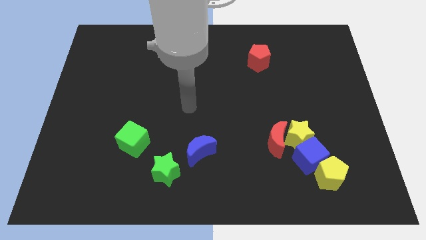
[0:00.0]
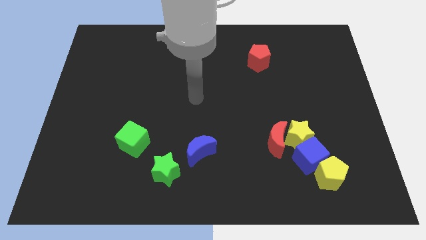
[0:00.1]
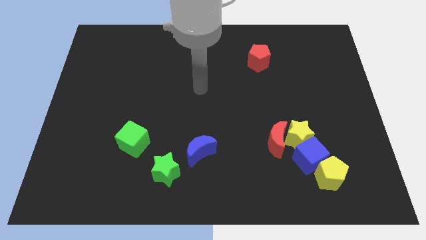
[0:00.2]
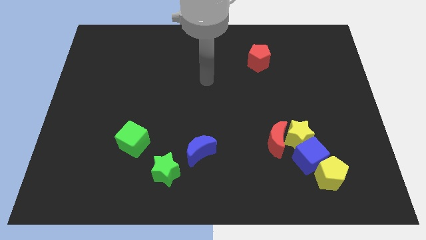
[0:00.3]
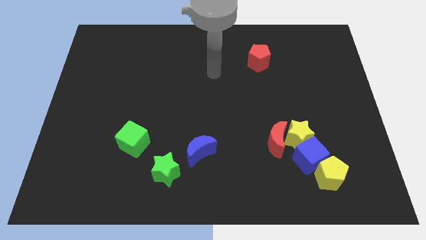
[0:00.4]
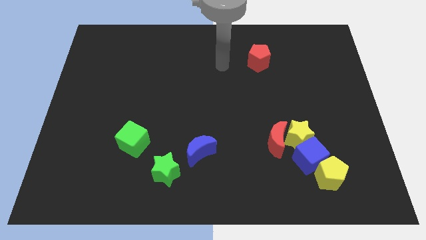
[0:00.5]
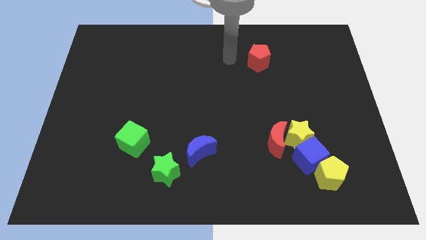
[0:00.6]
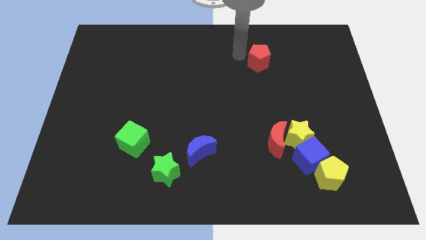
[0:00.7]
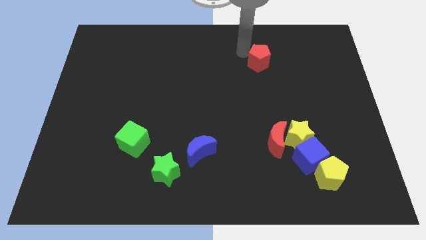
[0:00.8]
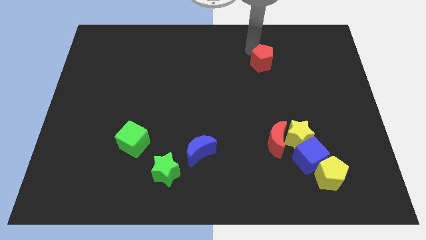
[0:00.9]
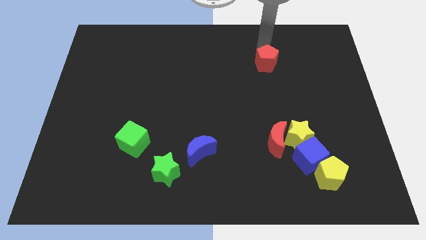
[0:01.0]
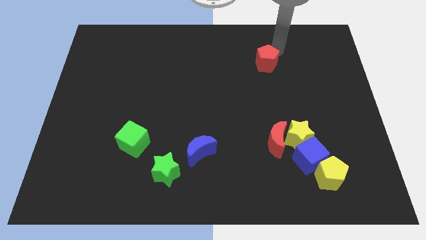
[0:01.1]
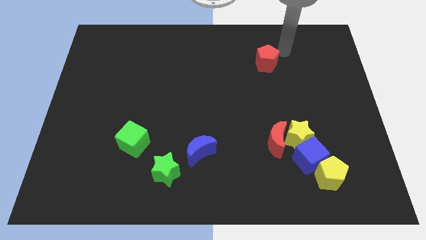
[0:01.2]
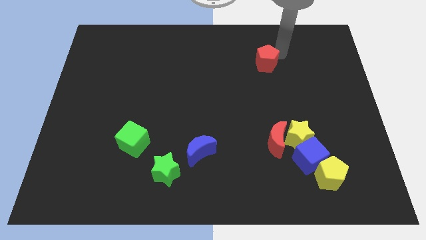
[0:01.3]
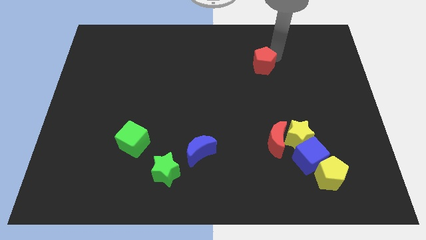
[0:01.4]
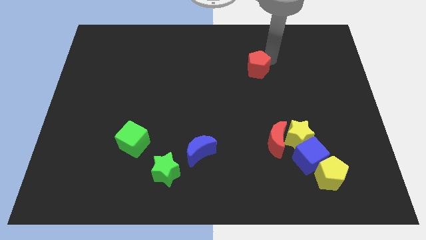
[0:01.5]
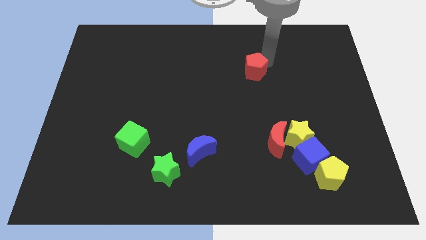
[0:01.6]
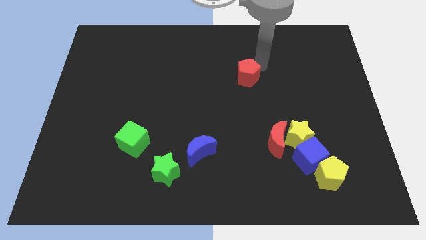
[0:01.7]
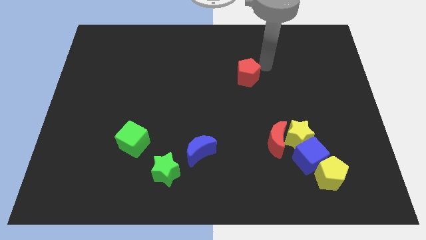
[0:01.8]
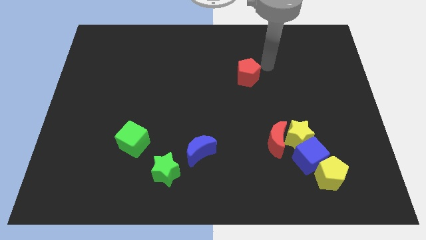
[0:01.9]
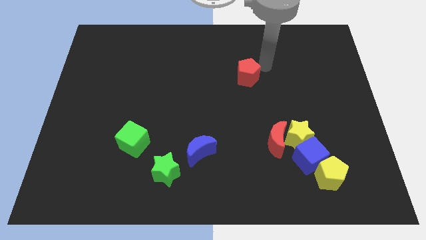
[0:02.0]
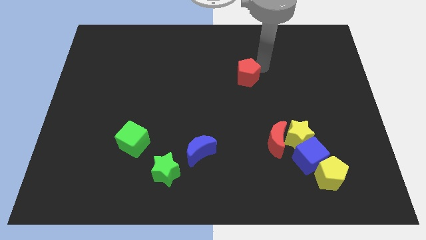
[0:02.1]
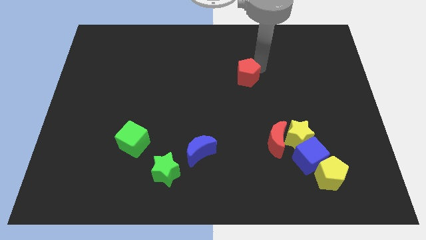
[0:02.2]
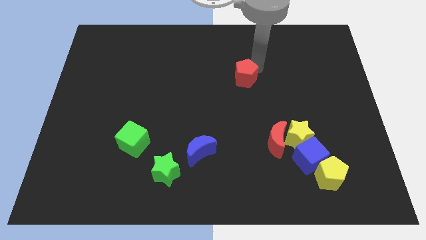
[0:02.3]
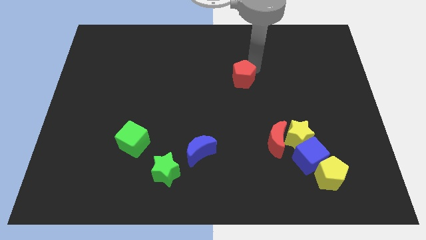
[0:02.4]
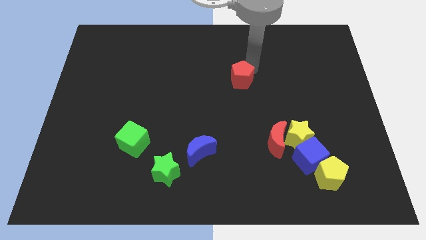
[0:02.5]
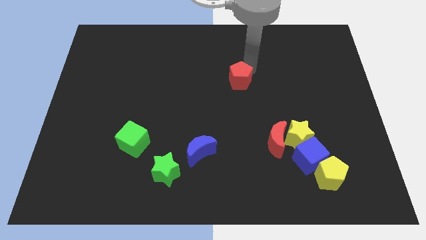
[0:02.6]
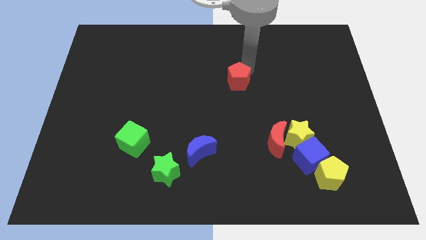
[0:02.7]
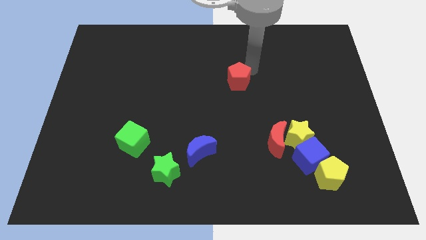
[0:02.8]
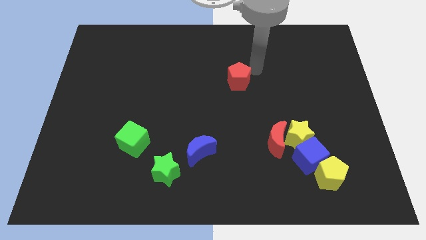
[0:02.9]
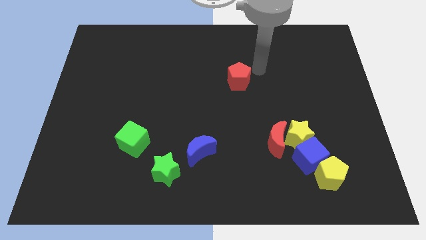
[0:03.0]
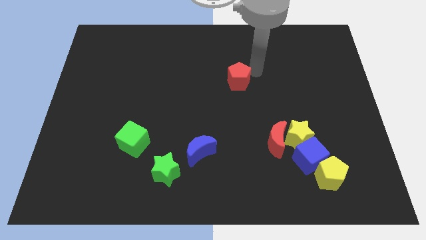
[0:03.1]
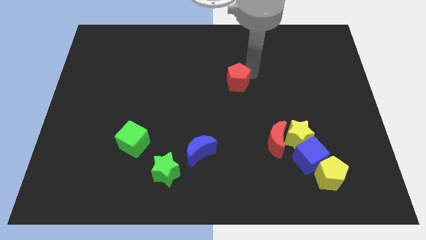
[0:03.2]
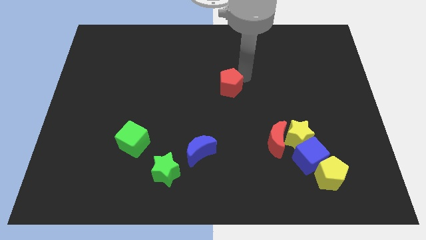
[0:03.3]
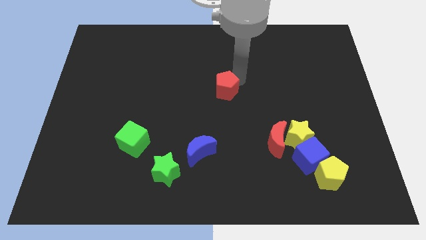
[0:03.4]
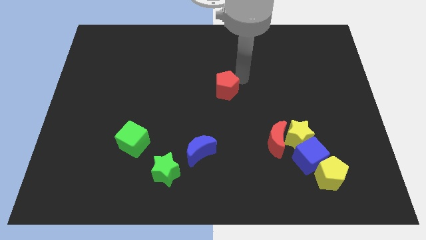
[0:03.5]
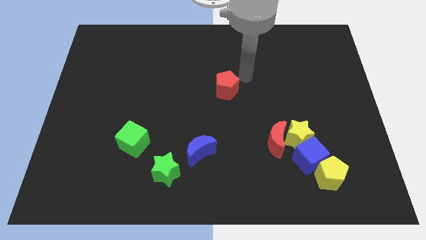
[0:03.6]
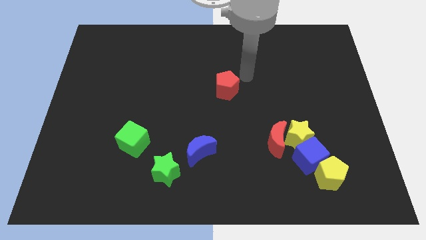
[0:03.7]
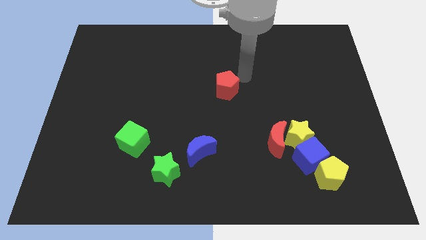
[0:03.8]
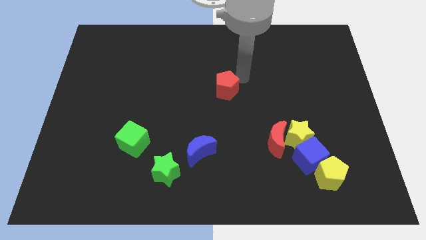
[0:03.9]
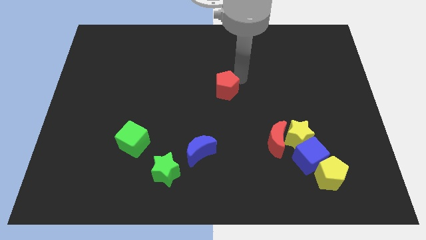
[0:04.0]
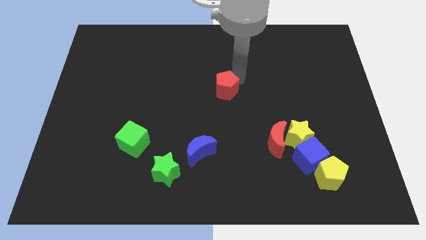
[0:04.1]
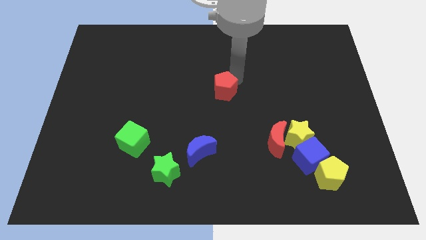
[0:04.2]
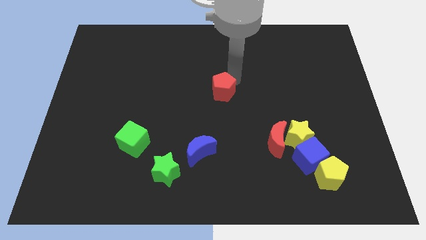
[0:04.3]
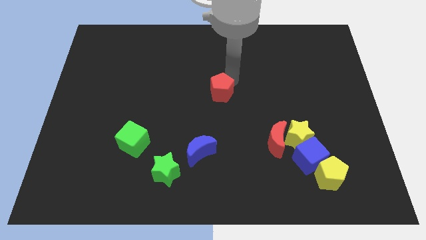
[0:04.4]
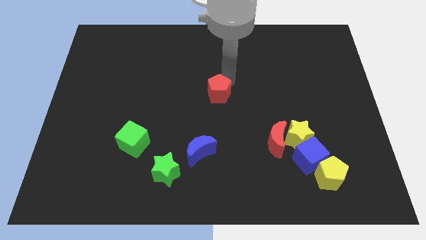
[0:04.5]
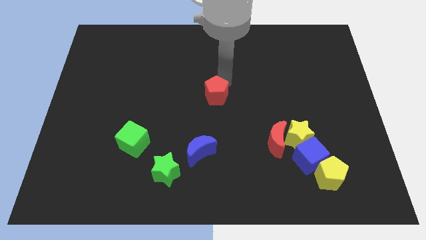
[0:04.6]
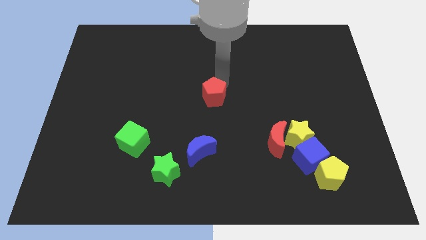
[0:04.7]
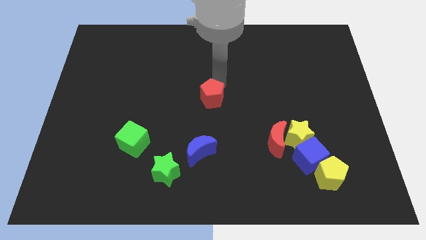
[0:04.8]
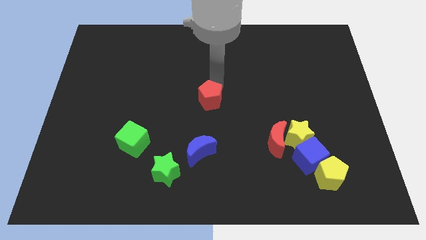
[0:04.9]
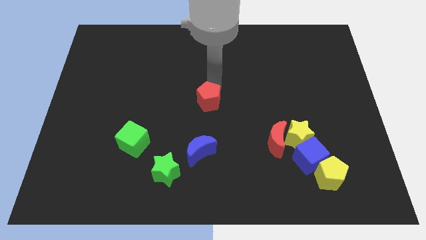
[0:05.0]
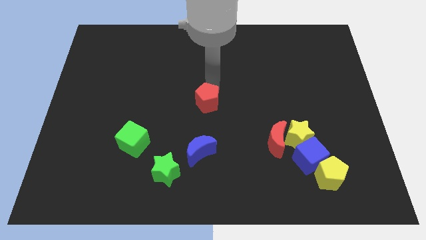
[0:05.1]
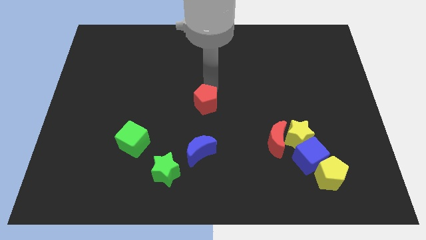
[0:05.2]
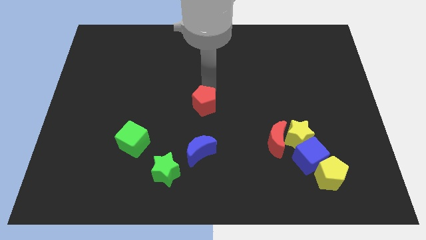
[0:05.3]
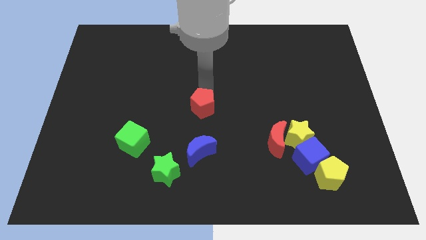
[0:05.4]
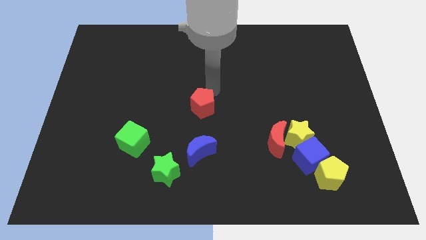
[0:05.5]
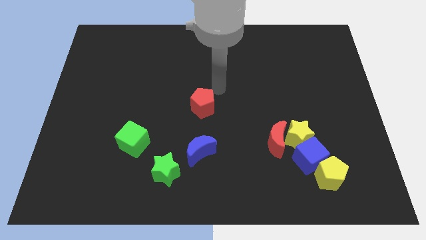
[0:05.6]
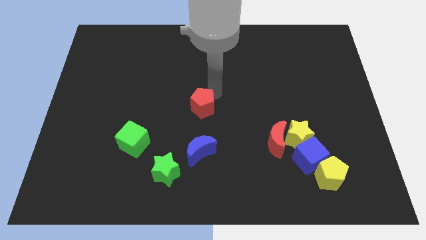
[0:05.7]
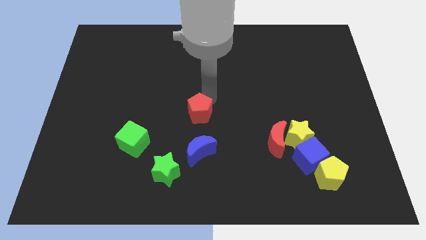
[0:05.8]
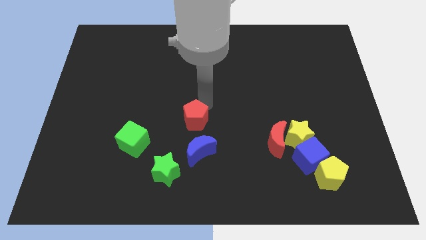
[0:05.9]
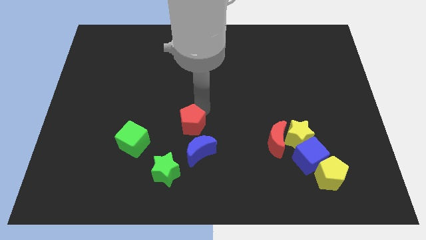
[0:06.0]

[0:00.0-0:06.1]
slide the red pentagon to the top left side of the blue moon

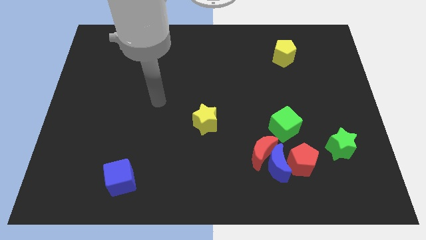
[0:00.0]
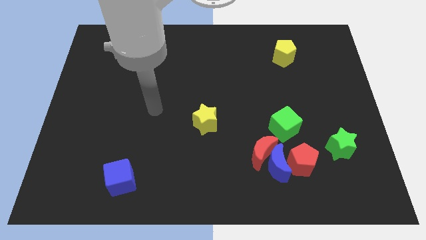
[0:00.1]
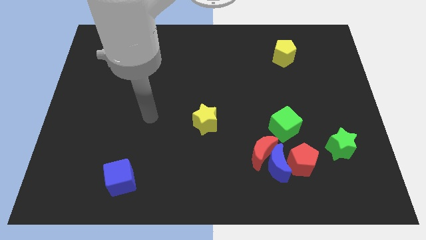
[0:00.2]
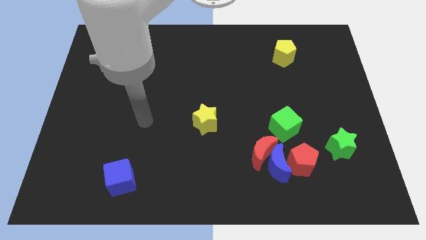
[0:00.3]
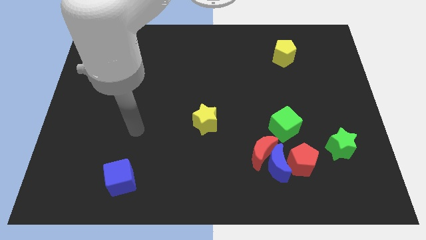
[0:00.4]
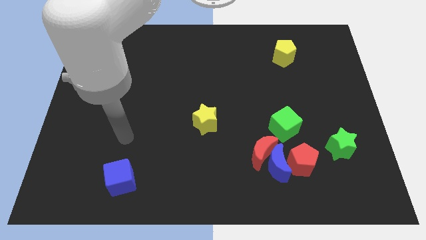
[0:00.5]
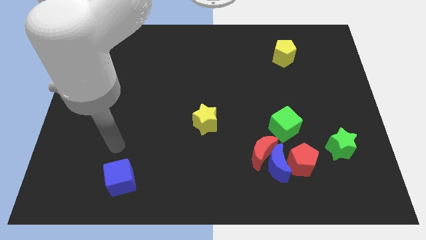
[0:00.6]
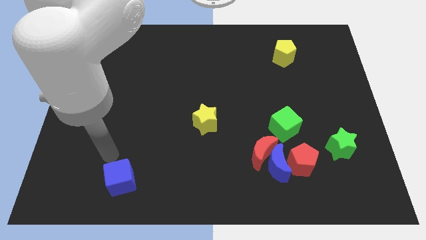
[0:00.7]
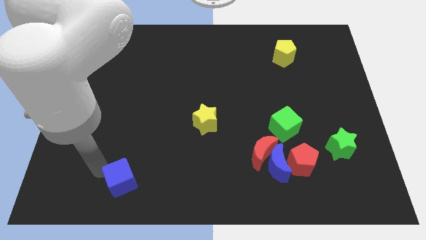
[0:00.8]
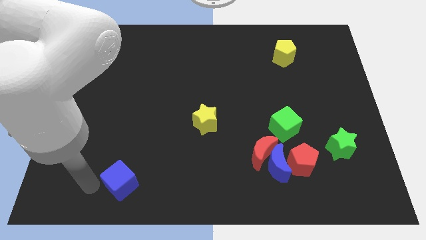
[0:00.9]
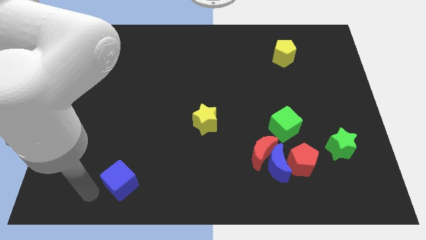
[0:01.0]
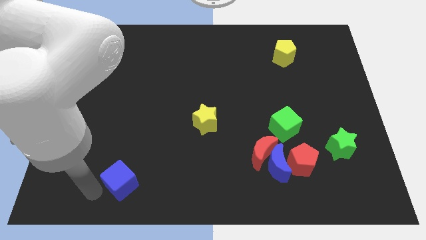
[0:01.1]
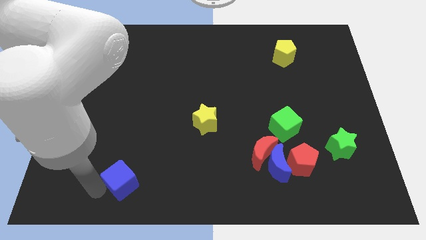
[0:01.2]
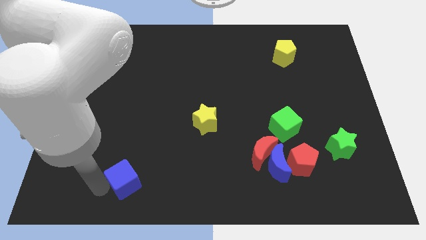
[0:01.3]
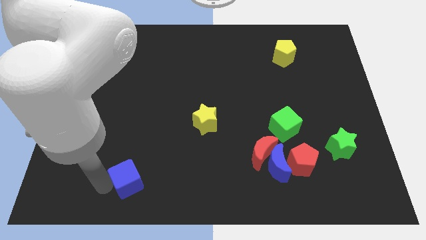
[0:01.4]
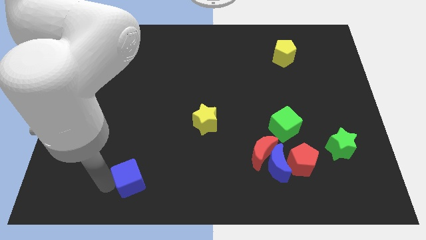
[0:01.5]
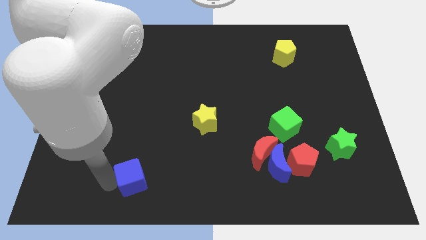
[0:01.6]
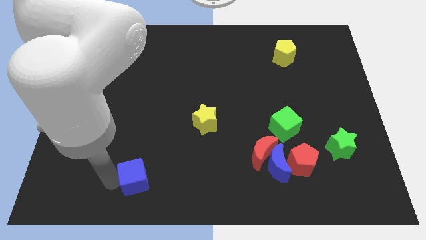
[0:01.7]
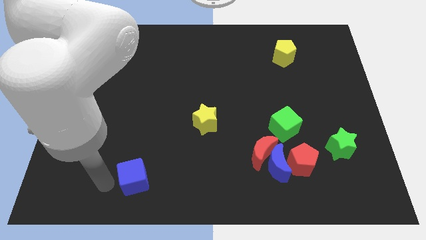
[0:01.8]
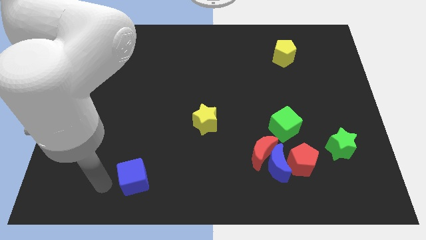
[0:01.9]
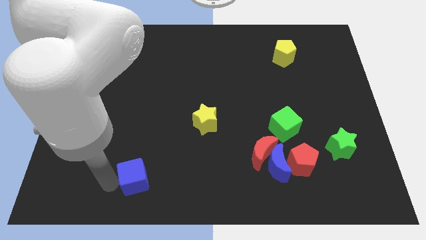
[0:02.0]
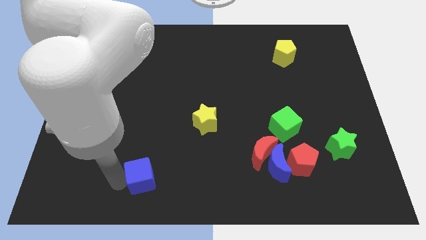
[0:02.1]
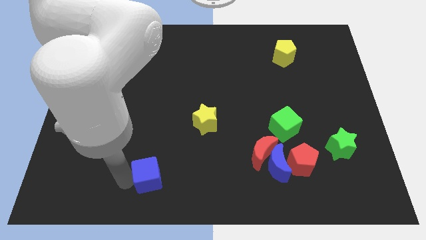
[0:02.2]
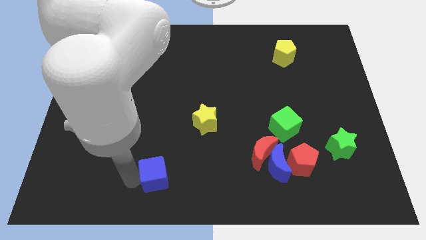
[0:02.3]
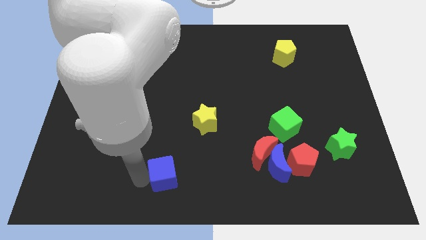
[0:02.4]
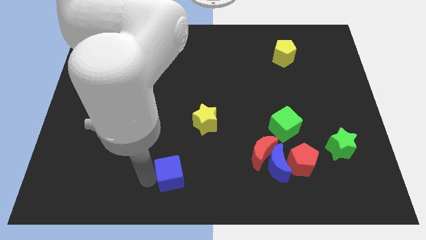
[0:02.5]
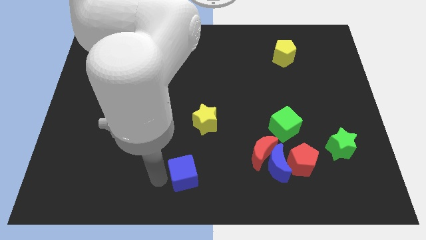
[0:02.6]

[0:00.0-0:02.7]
slide the blue cube to the bottom side of the yellow star

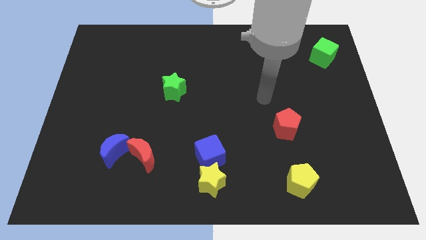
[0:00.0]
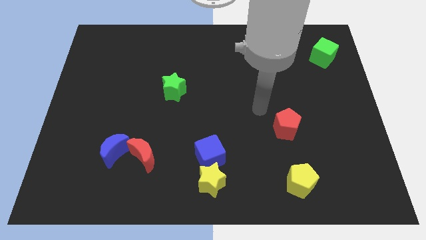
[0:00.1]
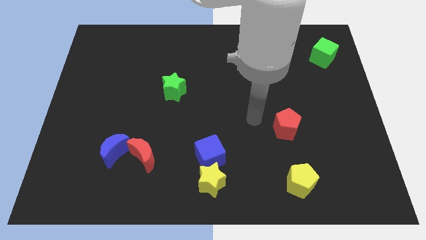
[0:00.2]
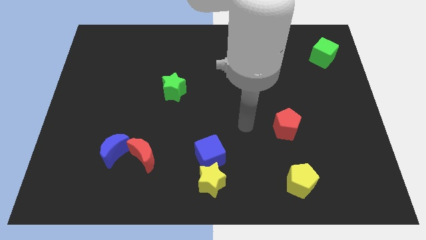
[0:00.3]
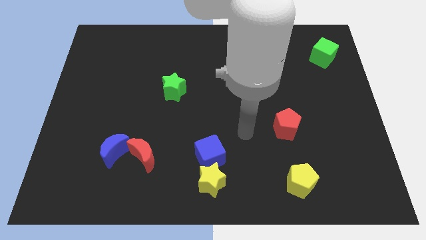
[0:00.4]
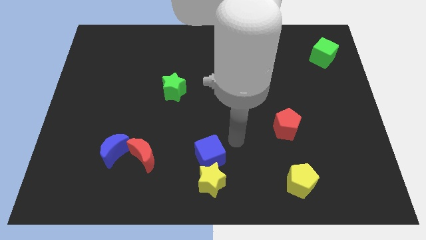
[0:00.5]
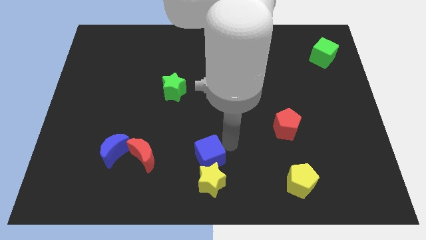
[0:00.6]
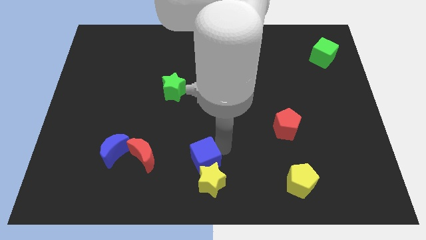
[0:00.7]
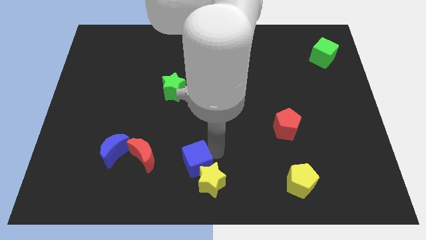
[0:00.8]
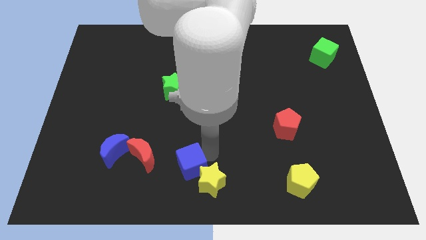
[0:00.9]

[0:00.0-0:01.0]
move the blue cube just left of the yellow star
